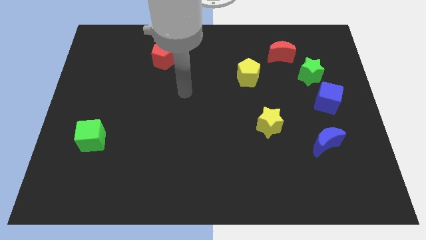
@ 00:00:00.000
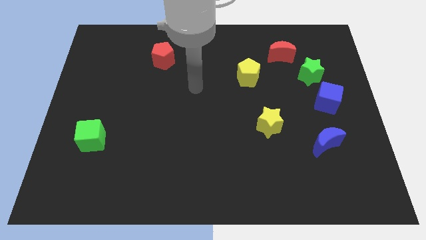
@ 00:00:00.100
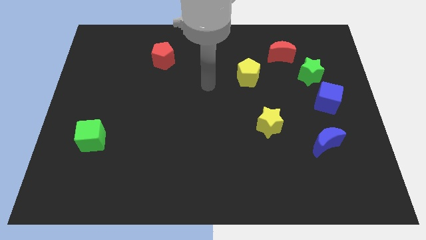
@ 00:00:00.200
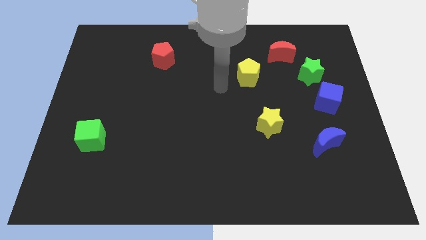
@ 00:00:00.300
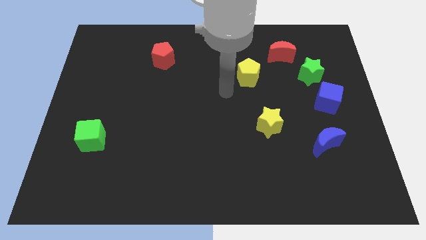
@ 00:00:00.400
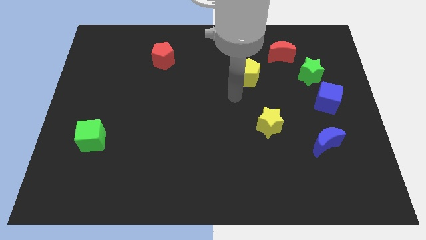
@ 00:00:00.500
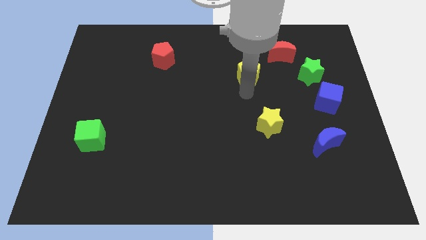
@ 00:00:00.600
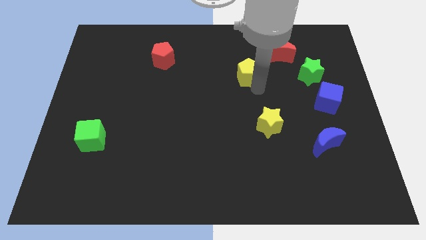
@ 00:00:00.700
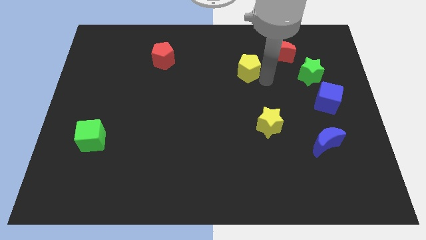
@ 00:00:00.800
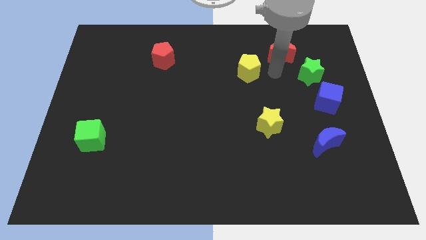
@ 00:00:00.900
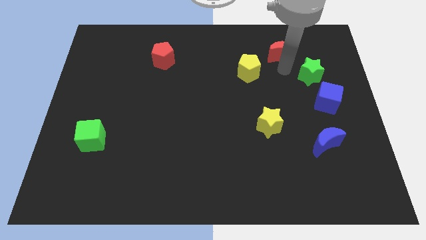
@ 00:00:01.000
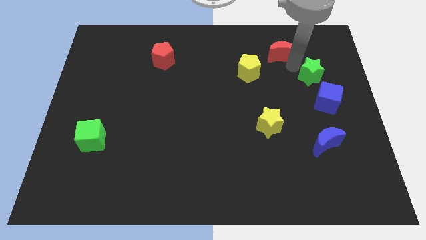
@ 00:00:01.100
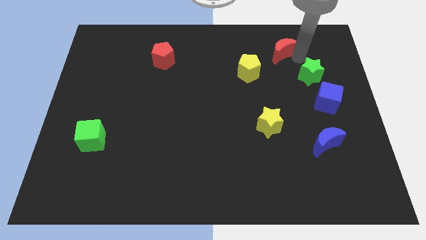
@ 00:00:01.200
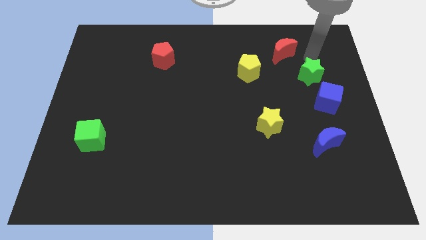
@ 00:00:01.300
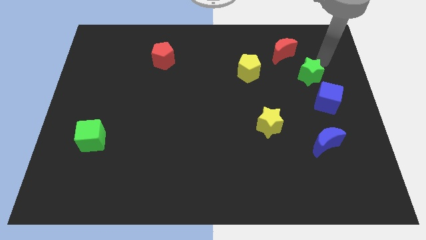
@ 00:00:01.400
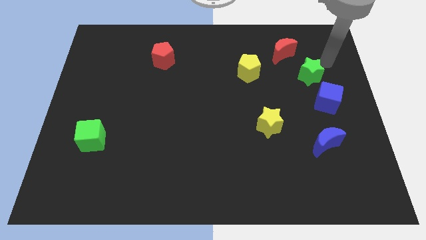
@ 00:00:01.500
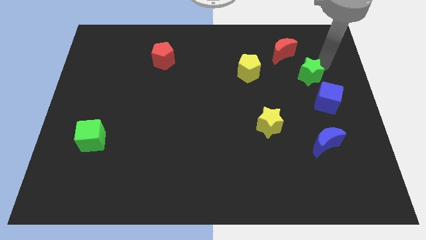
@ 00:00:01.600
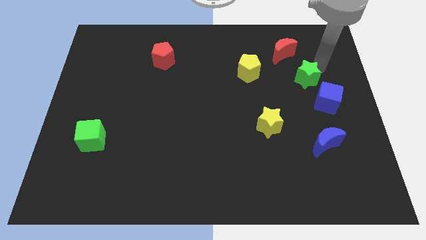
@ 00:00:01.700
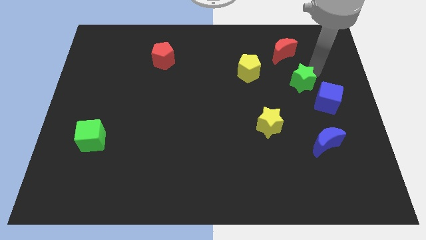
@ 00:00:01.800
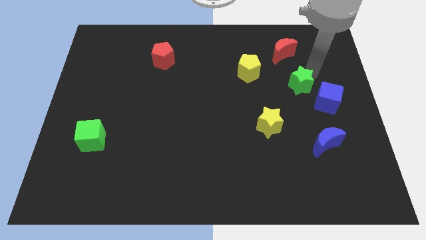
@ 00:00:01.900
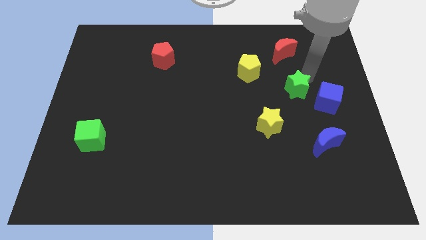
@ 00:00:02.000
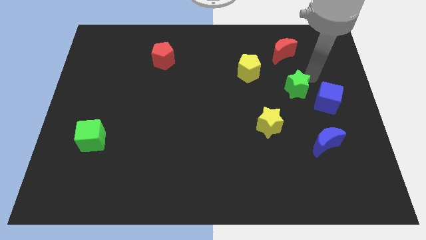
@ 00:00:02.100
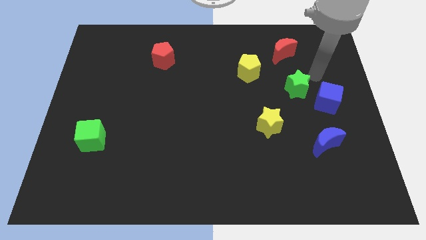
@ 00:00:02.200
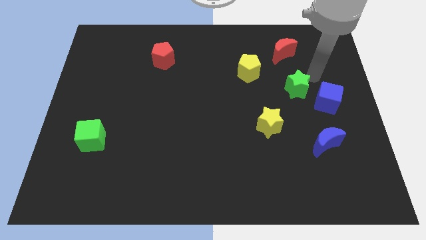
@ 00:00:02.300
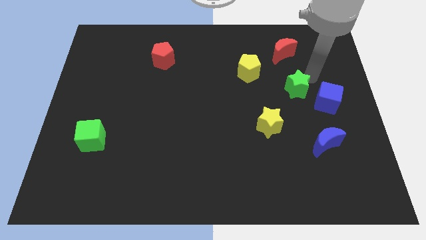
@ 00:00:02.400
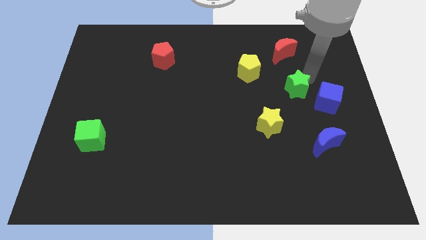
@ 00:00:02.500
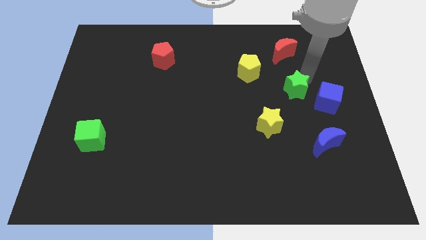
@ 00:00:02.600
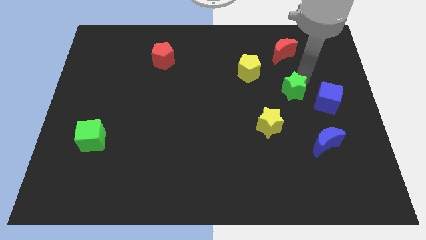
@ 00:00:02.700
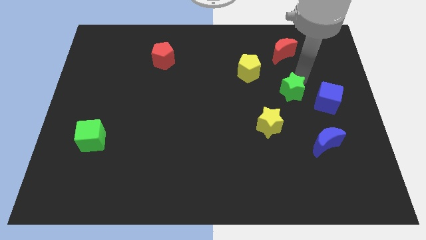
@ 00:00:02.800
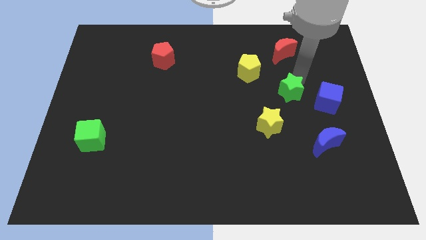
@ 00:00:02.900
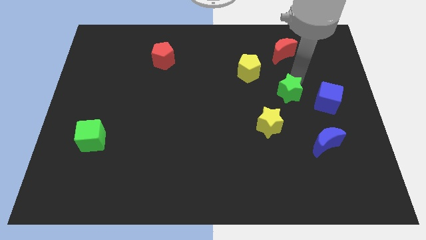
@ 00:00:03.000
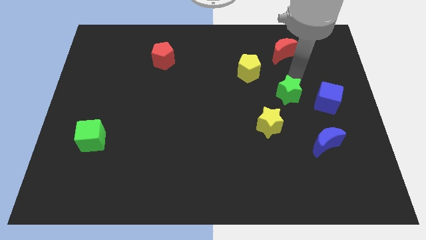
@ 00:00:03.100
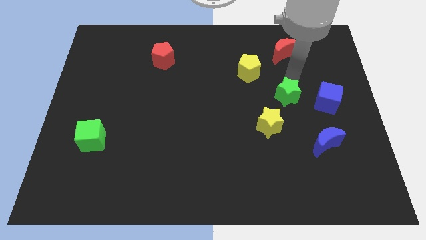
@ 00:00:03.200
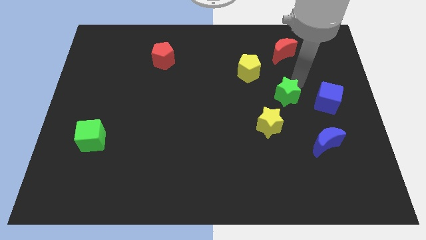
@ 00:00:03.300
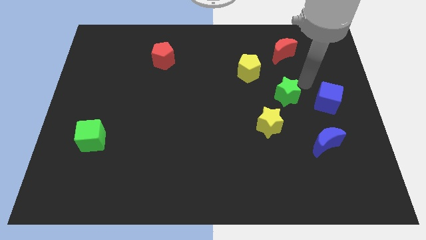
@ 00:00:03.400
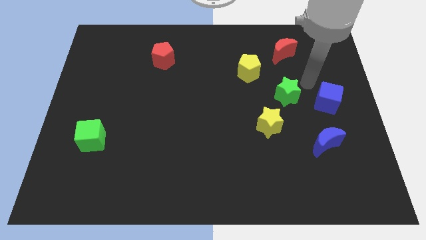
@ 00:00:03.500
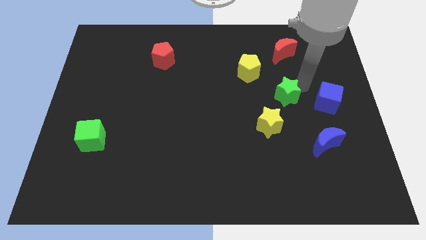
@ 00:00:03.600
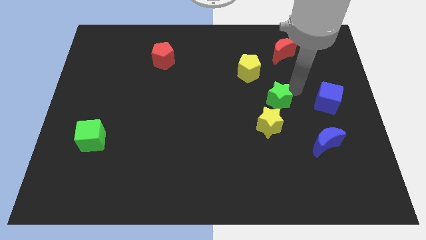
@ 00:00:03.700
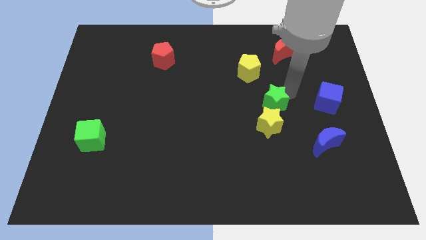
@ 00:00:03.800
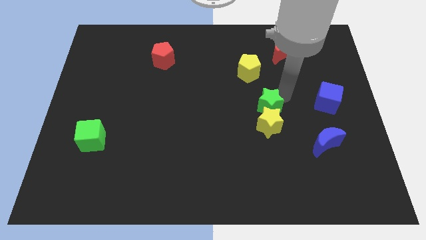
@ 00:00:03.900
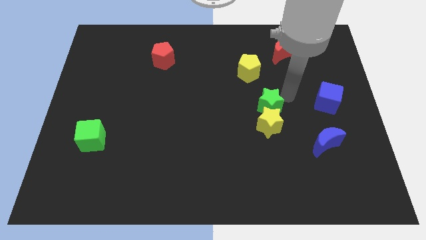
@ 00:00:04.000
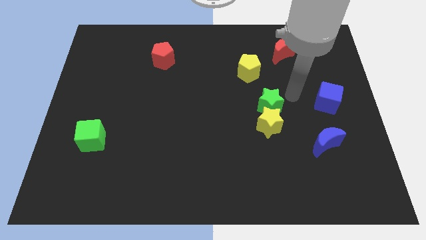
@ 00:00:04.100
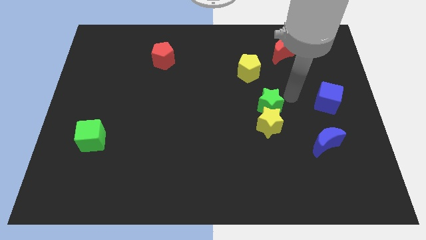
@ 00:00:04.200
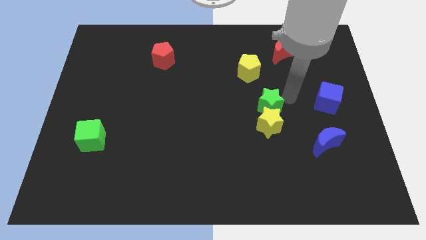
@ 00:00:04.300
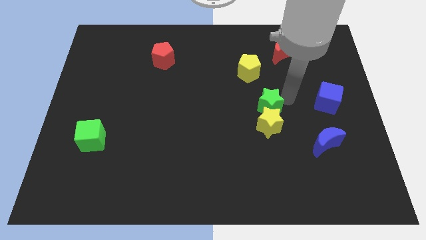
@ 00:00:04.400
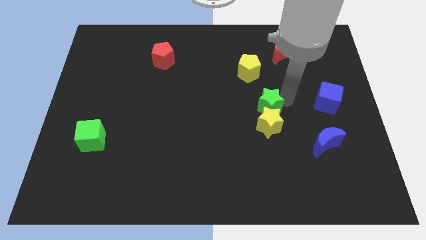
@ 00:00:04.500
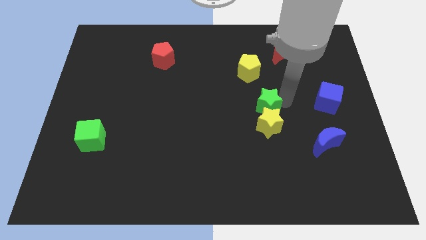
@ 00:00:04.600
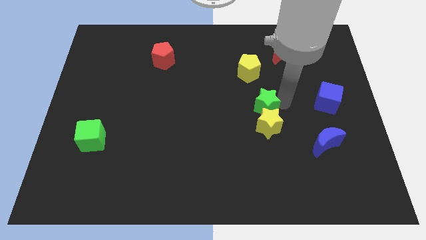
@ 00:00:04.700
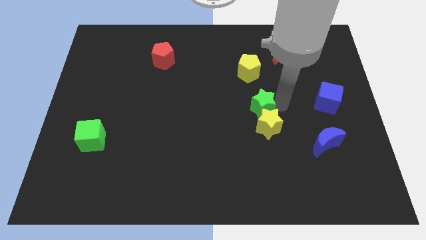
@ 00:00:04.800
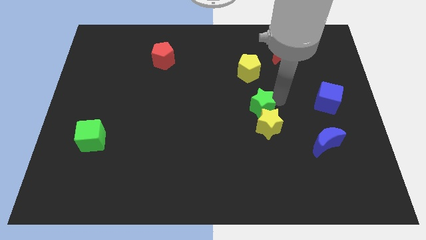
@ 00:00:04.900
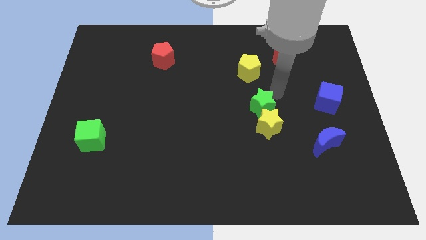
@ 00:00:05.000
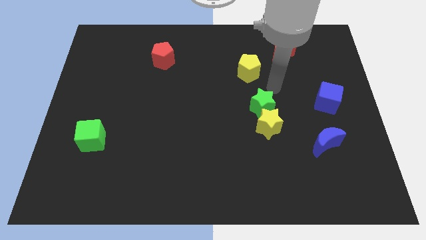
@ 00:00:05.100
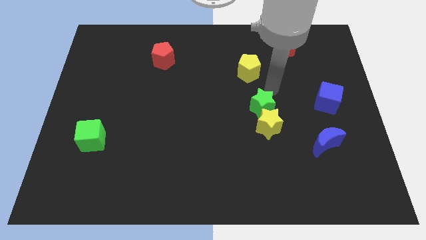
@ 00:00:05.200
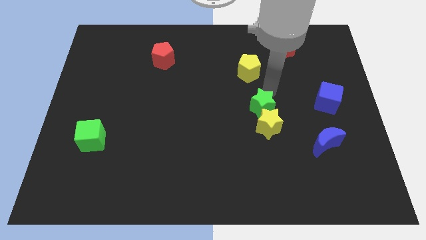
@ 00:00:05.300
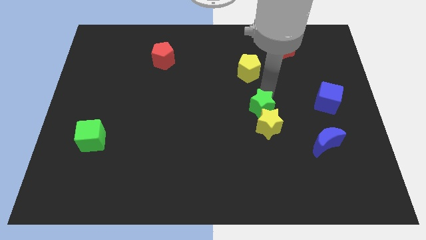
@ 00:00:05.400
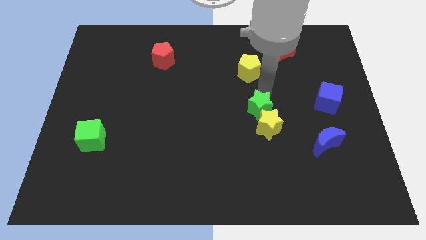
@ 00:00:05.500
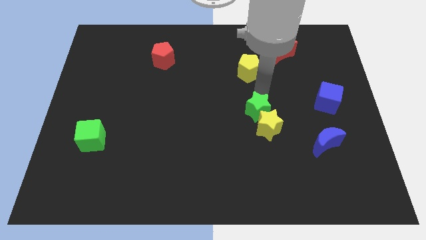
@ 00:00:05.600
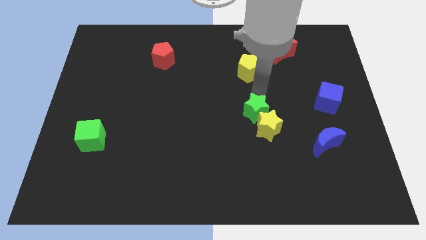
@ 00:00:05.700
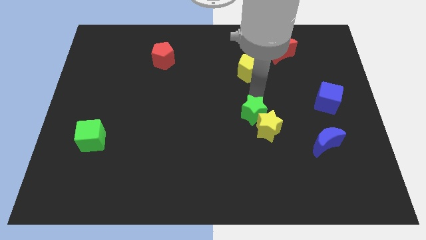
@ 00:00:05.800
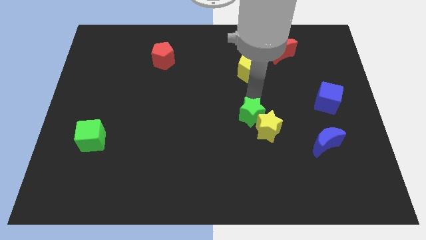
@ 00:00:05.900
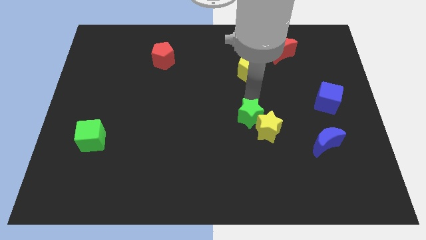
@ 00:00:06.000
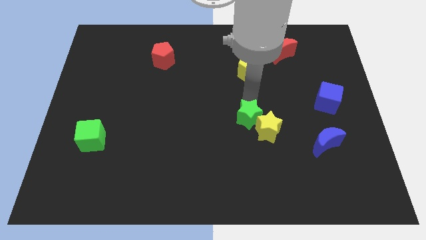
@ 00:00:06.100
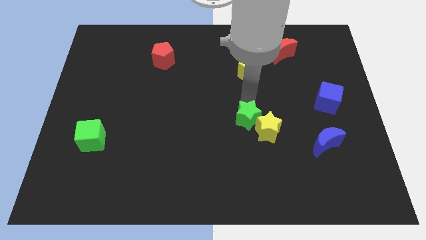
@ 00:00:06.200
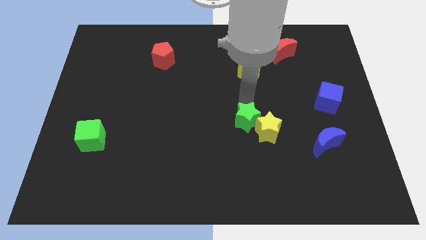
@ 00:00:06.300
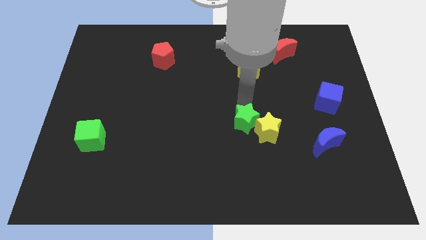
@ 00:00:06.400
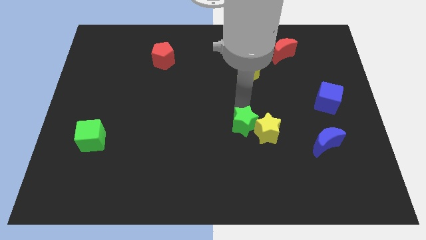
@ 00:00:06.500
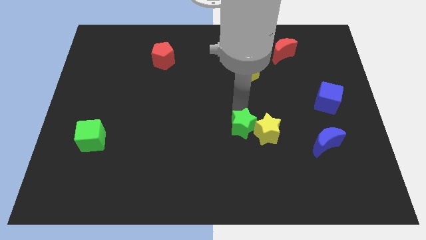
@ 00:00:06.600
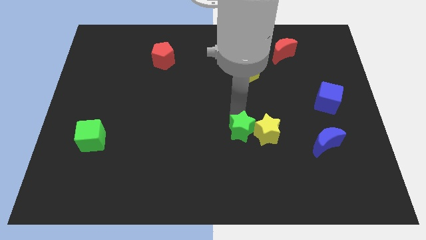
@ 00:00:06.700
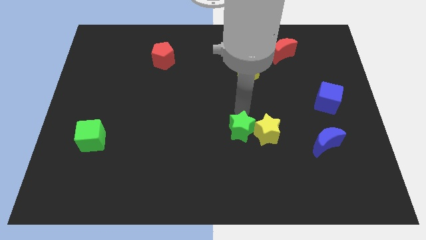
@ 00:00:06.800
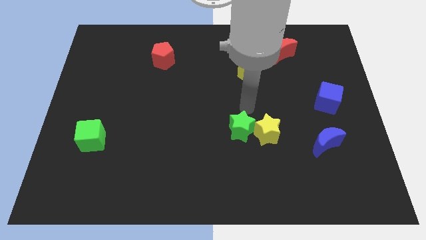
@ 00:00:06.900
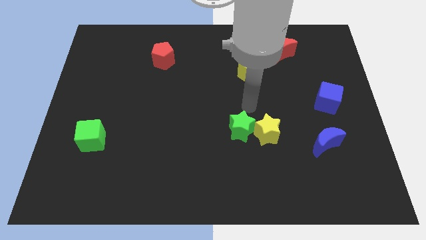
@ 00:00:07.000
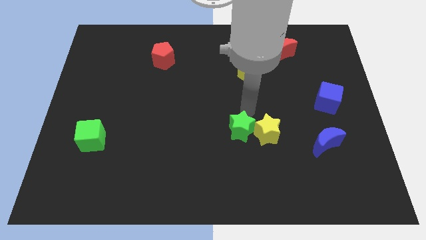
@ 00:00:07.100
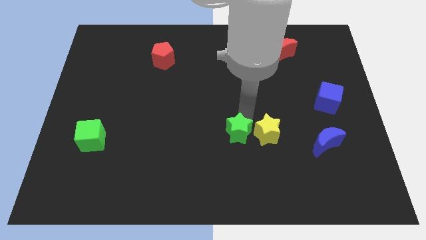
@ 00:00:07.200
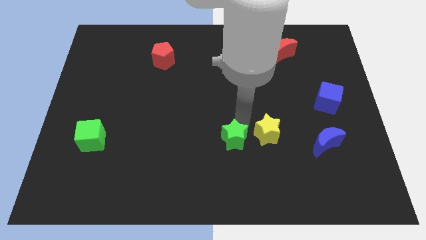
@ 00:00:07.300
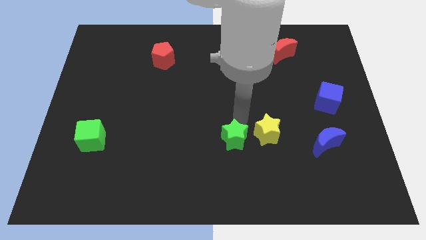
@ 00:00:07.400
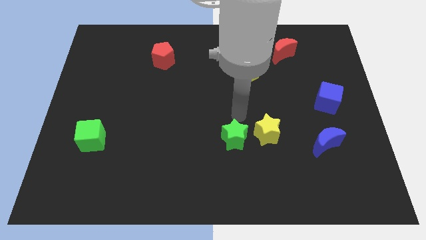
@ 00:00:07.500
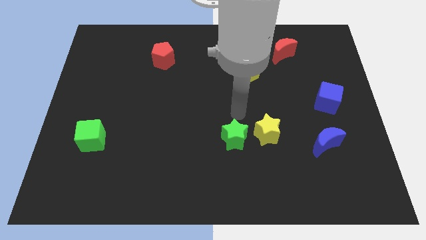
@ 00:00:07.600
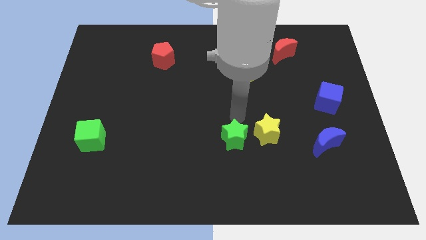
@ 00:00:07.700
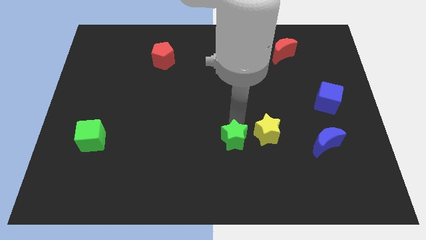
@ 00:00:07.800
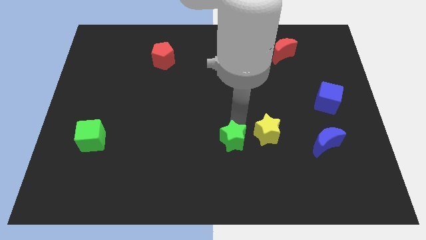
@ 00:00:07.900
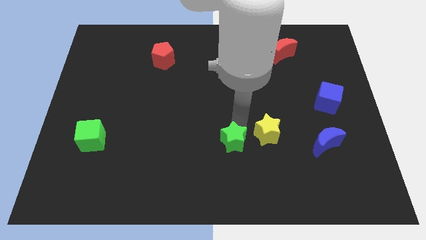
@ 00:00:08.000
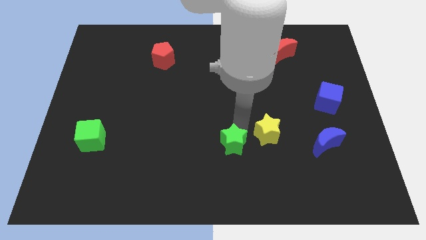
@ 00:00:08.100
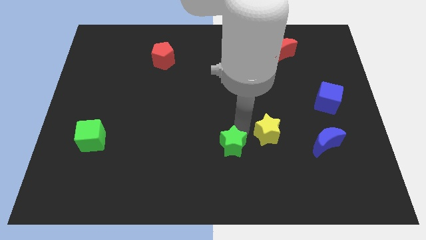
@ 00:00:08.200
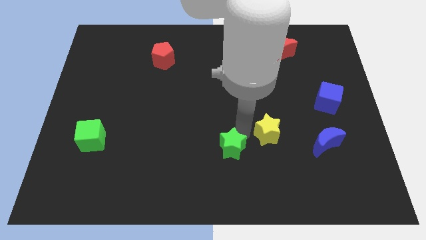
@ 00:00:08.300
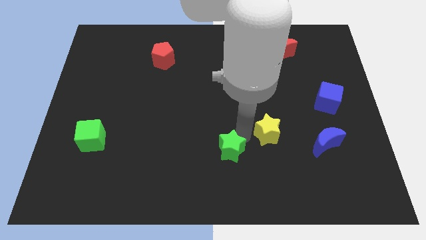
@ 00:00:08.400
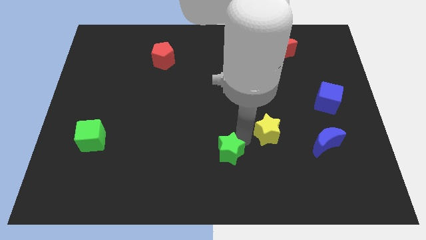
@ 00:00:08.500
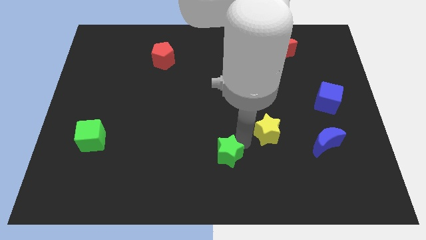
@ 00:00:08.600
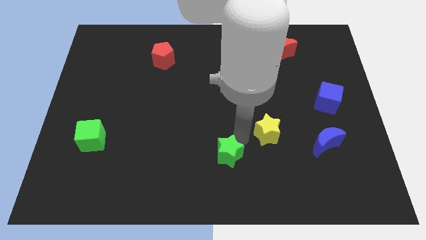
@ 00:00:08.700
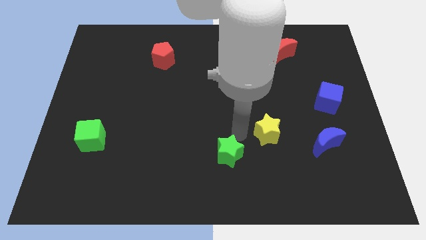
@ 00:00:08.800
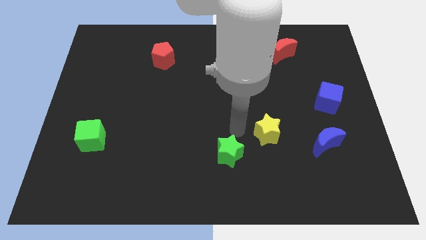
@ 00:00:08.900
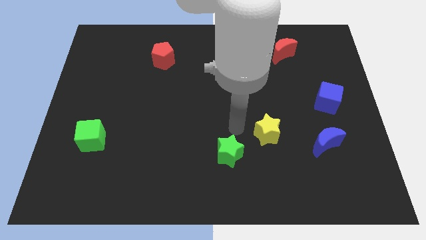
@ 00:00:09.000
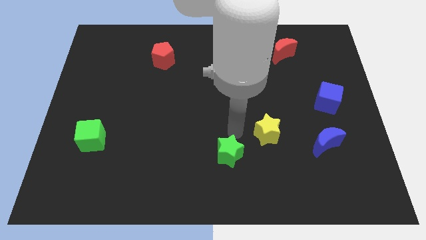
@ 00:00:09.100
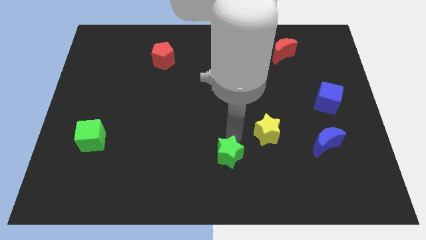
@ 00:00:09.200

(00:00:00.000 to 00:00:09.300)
move the green star to the bottom side
